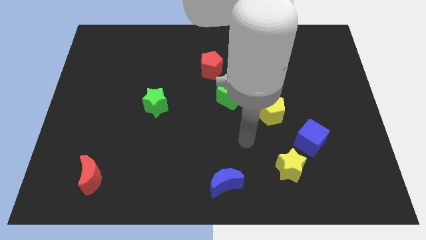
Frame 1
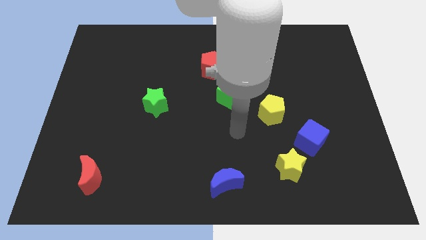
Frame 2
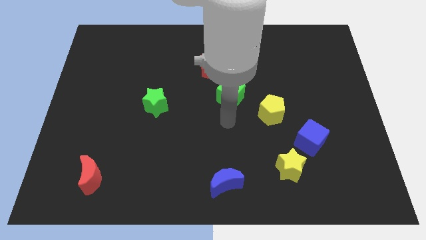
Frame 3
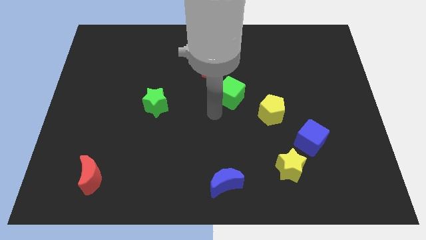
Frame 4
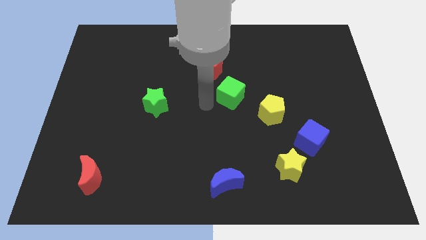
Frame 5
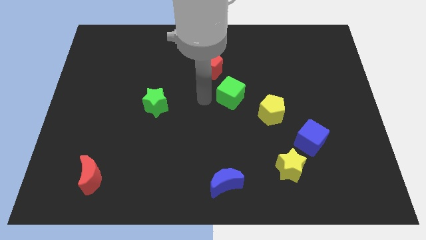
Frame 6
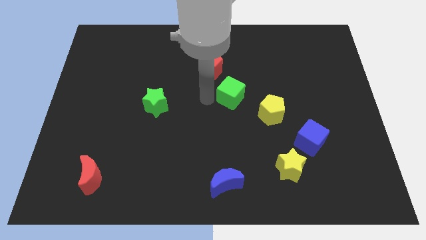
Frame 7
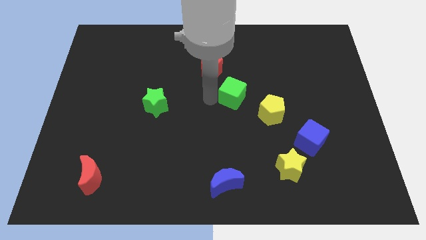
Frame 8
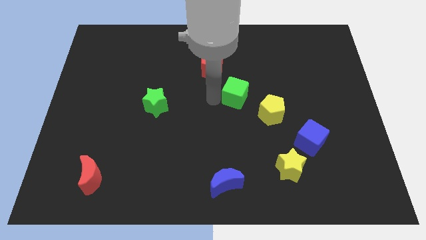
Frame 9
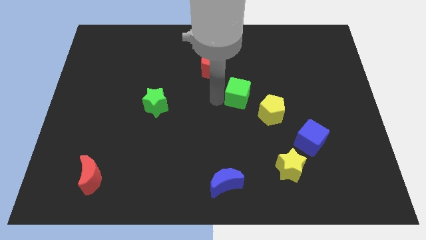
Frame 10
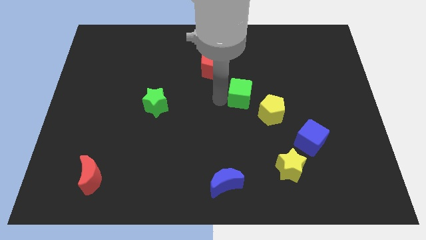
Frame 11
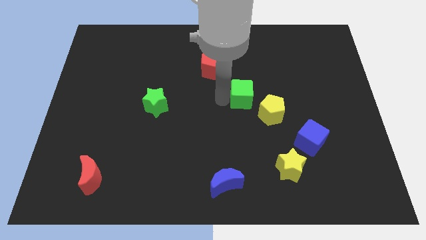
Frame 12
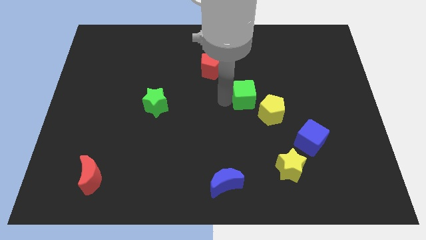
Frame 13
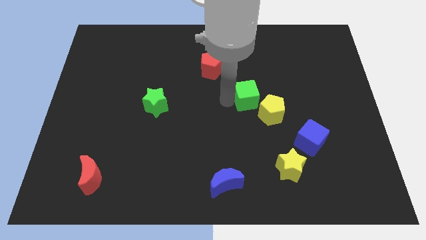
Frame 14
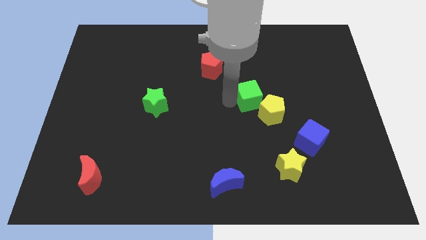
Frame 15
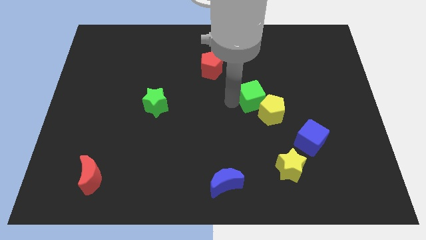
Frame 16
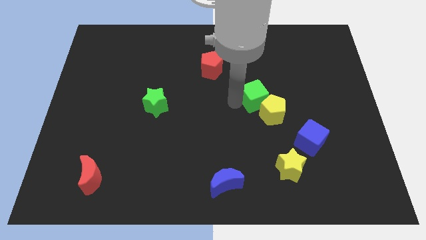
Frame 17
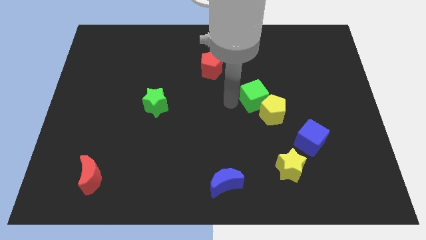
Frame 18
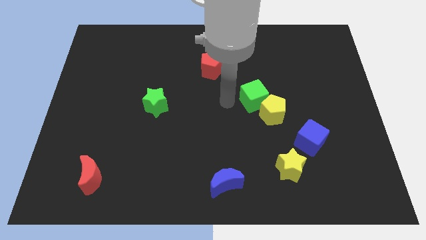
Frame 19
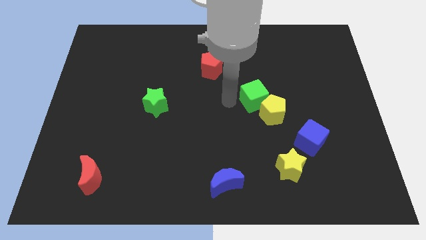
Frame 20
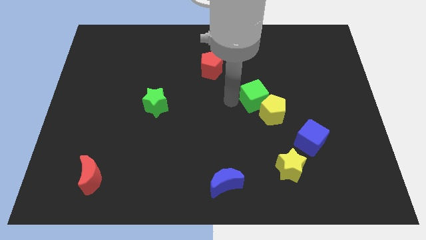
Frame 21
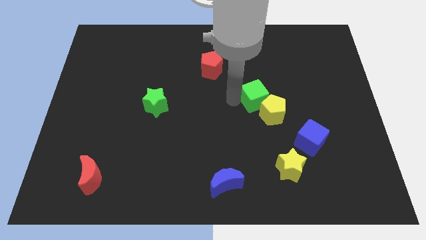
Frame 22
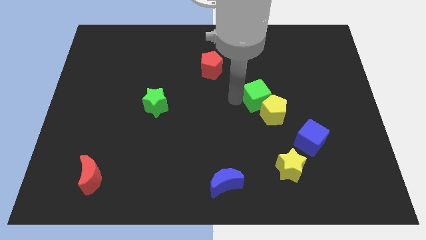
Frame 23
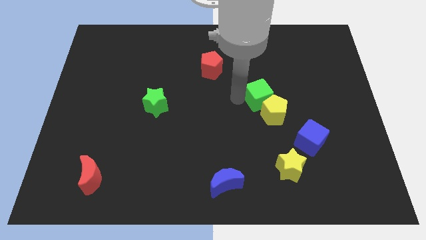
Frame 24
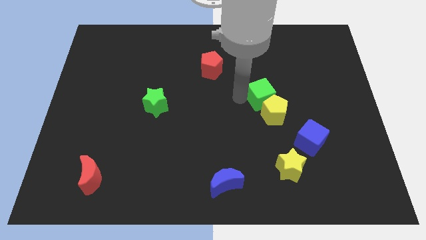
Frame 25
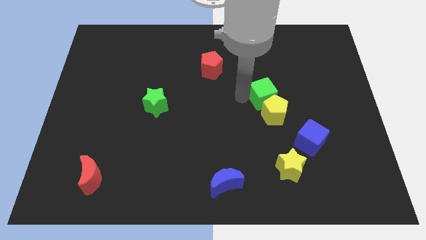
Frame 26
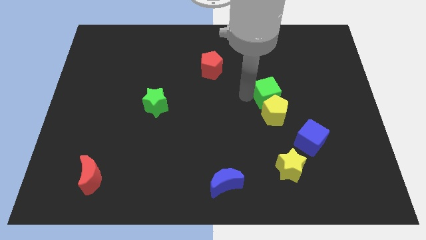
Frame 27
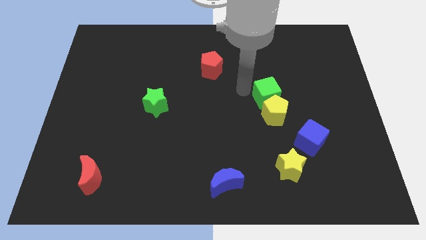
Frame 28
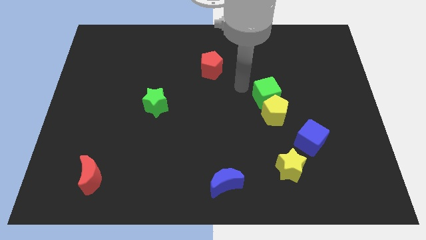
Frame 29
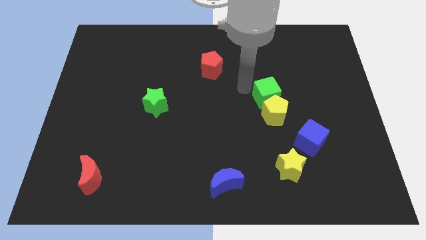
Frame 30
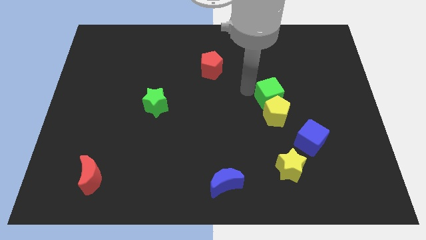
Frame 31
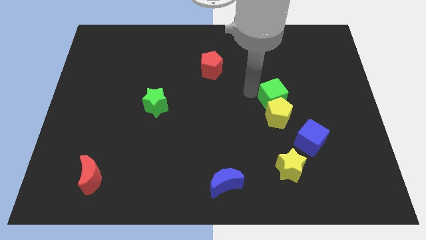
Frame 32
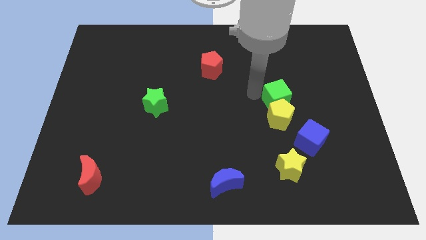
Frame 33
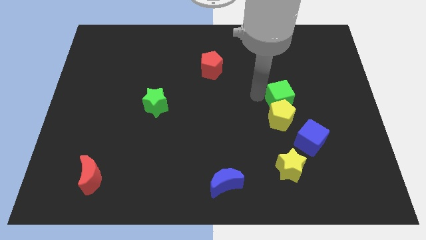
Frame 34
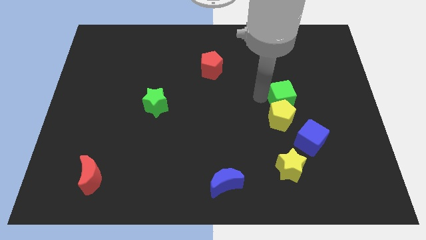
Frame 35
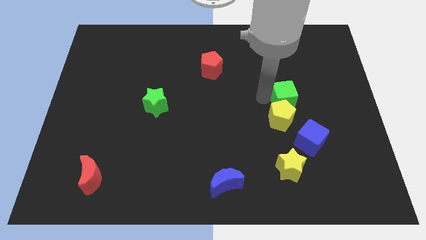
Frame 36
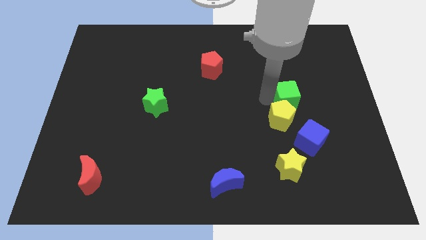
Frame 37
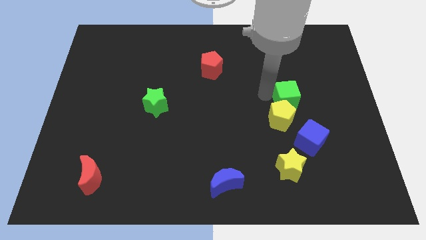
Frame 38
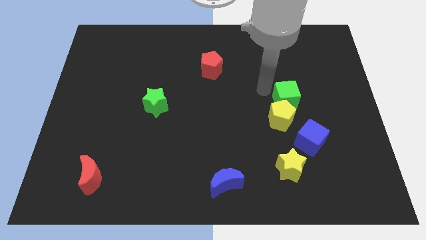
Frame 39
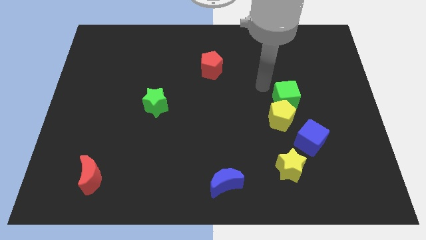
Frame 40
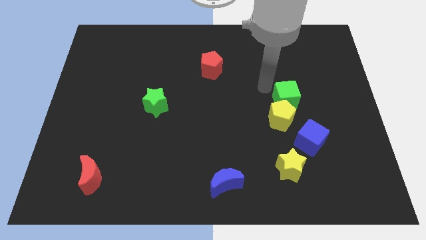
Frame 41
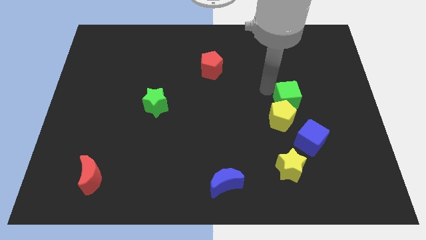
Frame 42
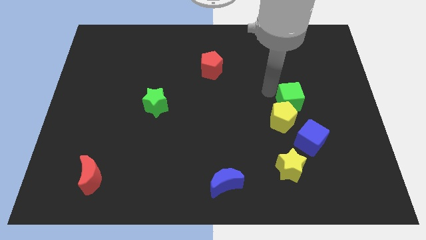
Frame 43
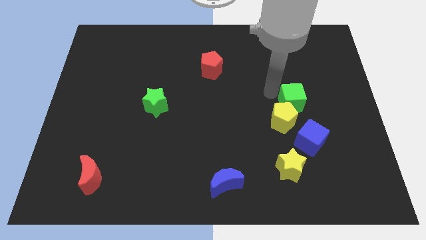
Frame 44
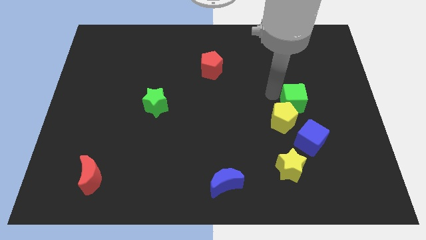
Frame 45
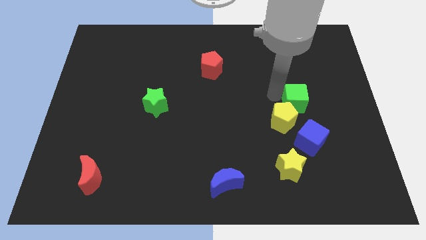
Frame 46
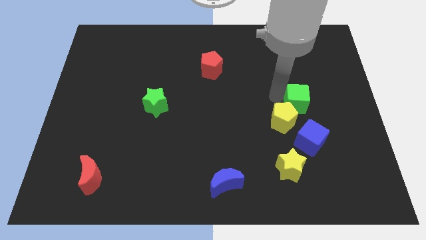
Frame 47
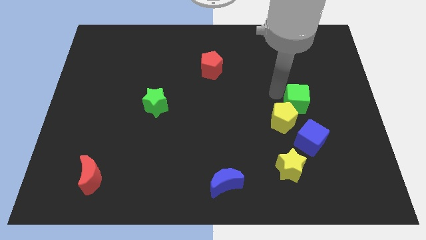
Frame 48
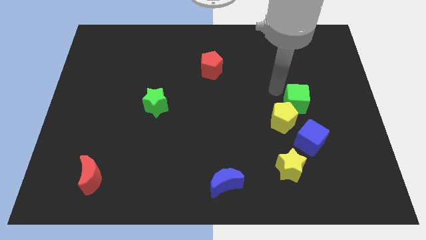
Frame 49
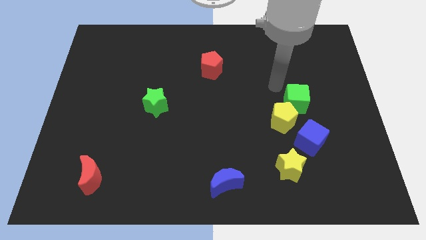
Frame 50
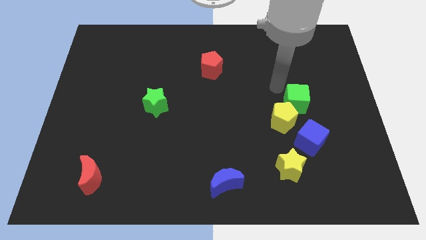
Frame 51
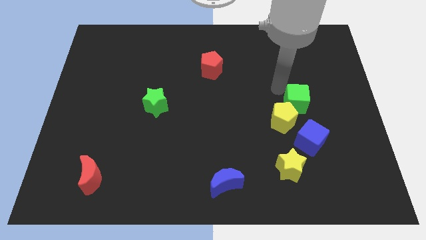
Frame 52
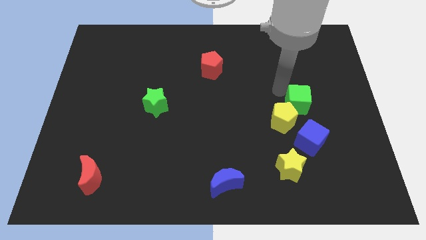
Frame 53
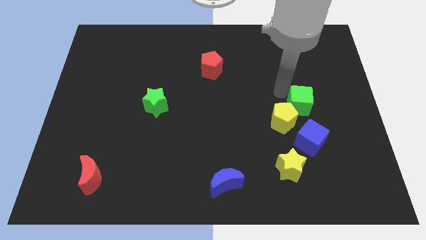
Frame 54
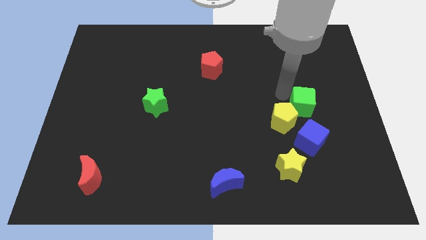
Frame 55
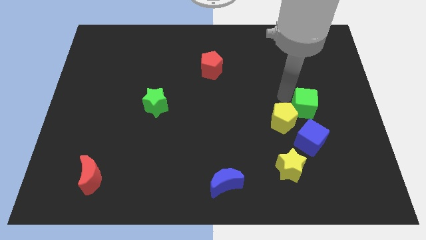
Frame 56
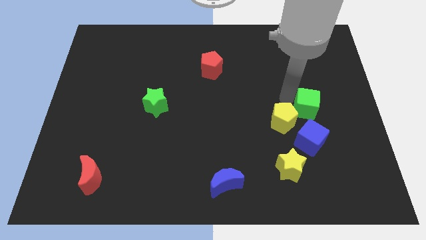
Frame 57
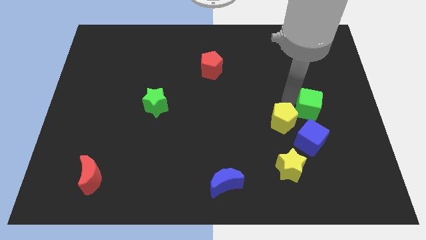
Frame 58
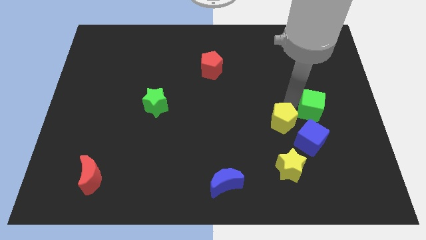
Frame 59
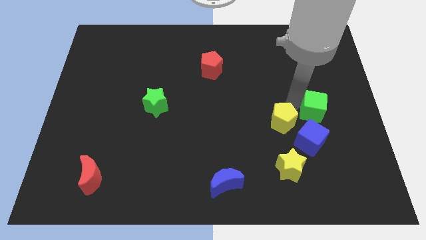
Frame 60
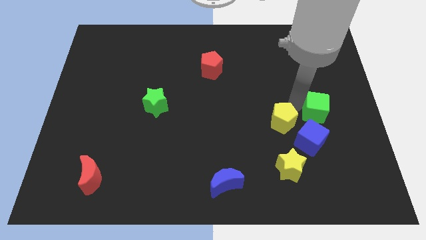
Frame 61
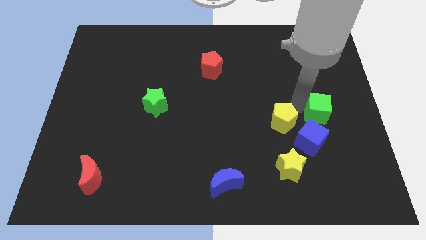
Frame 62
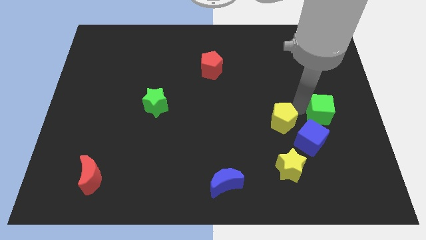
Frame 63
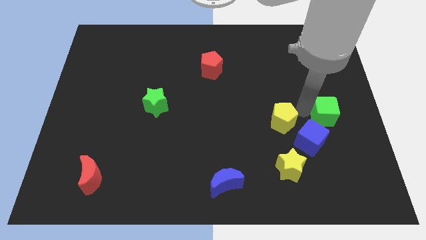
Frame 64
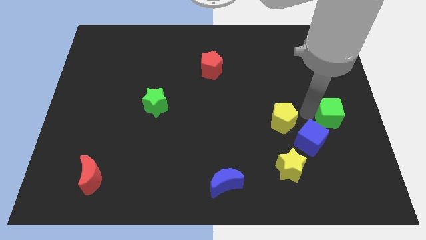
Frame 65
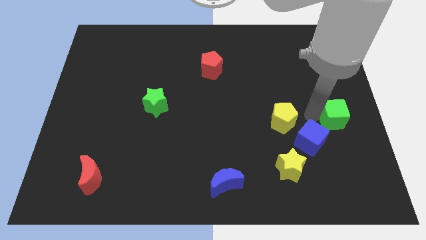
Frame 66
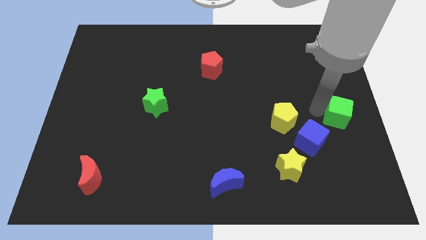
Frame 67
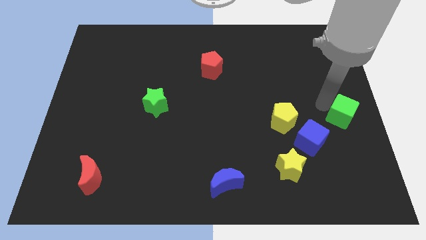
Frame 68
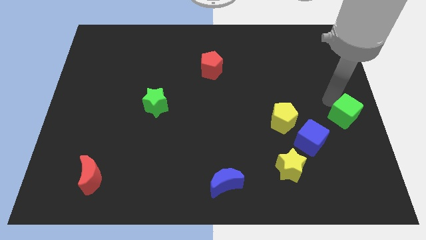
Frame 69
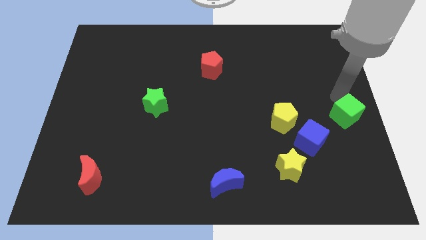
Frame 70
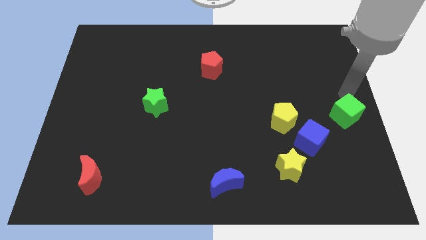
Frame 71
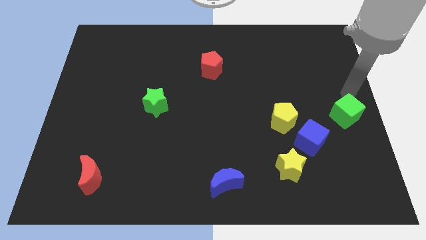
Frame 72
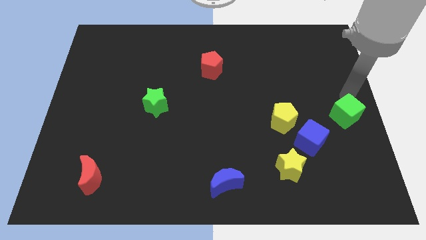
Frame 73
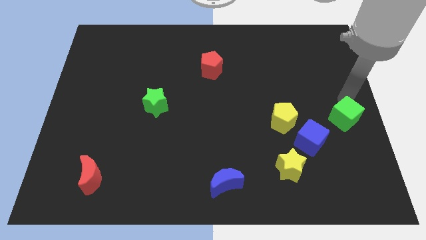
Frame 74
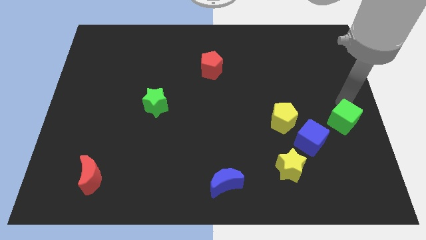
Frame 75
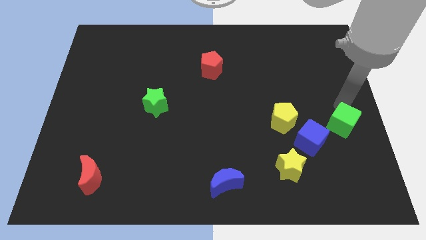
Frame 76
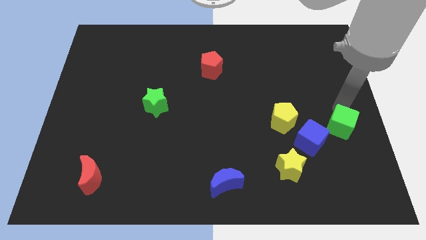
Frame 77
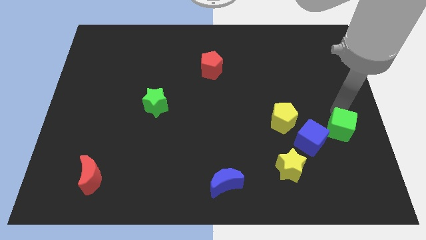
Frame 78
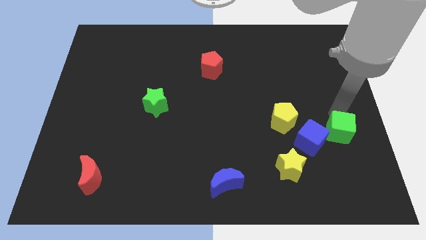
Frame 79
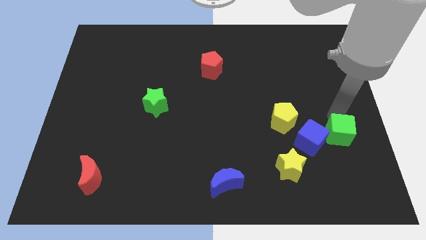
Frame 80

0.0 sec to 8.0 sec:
push the green cube down and right diagonally

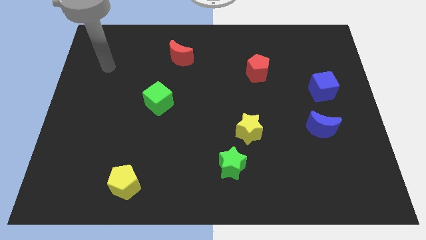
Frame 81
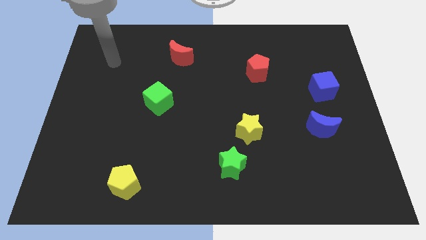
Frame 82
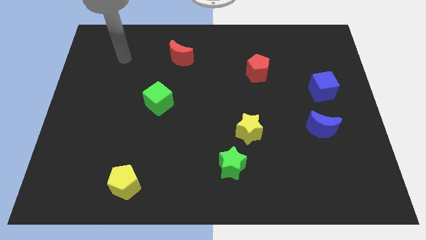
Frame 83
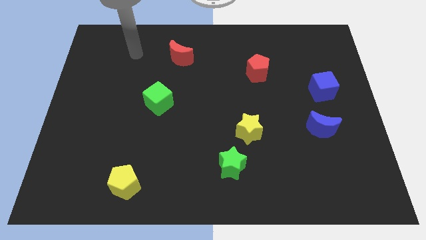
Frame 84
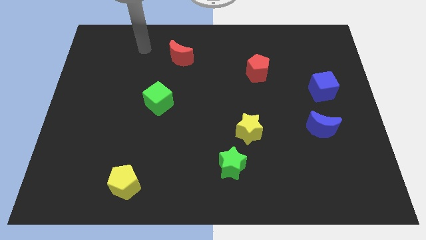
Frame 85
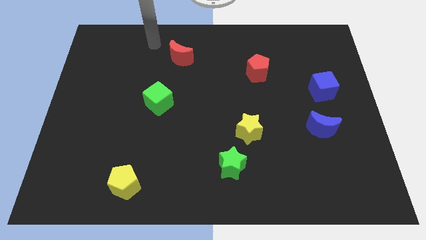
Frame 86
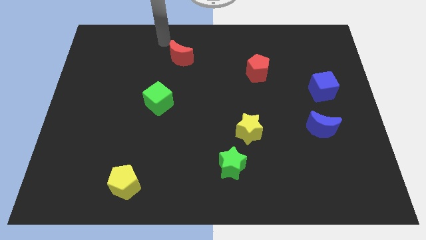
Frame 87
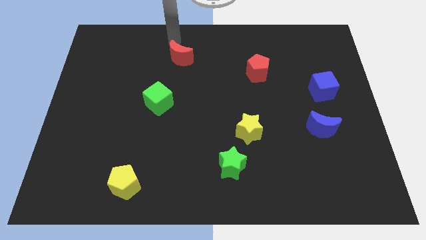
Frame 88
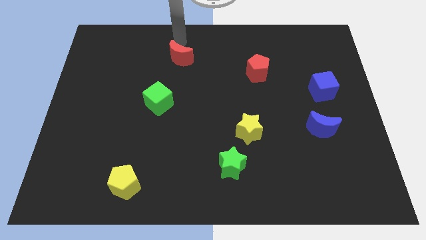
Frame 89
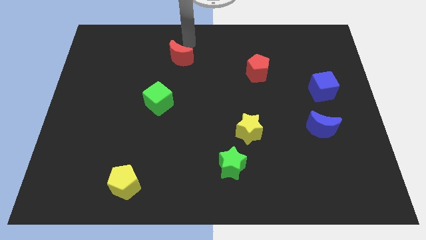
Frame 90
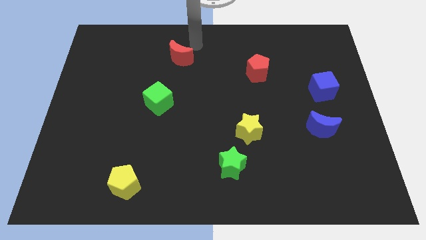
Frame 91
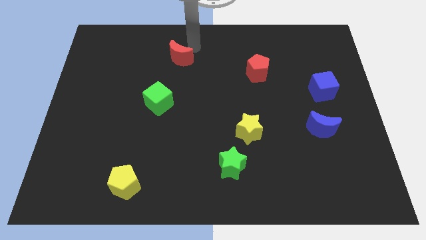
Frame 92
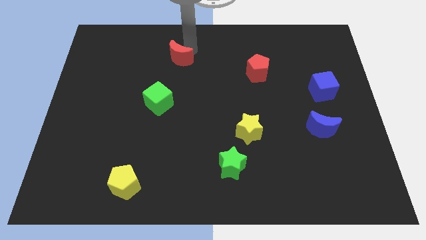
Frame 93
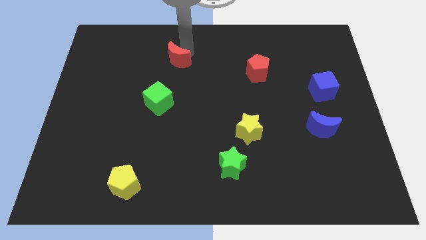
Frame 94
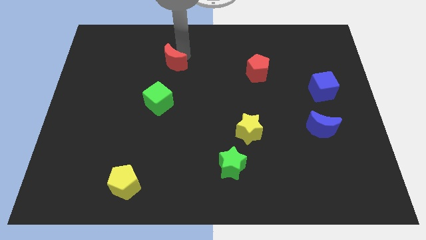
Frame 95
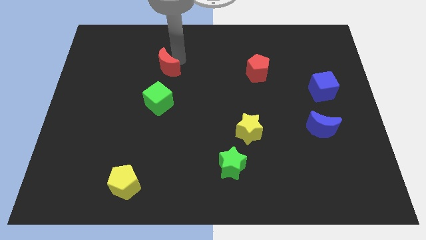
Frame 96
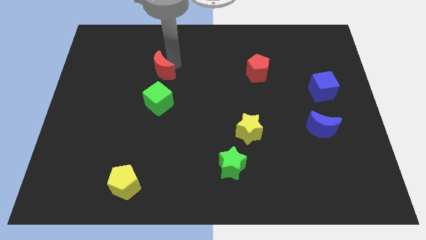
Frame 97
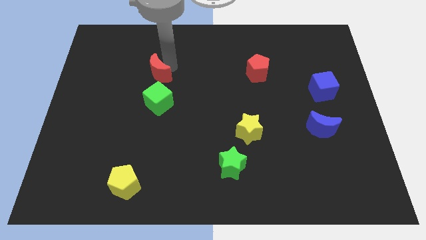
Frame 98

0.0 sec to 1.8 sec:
slightly push the red moon diagonally down and to the left
